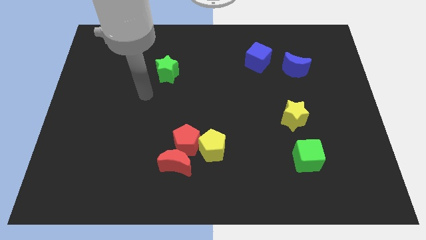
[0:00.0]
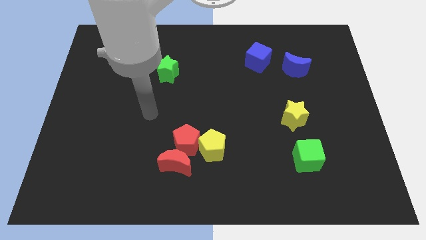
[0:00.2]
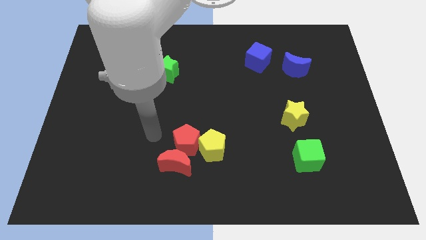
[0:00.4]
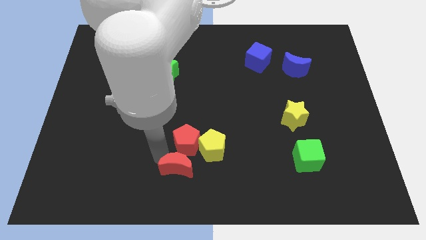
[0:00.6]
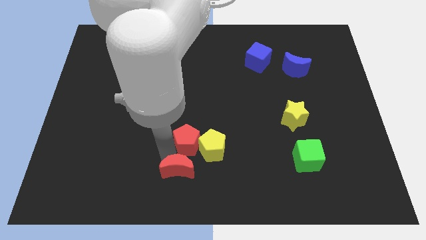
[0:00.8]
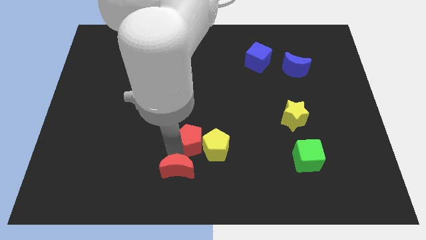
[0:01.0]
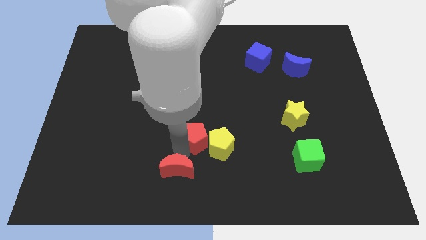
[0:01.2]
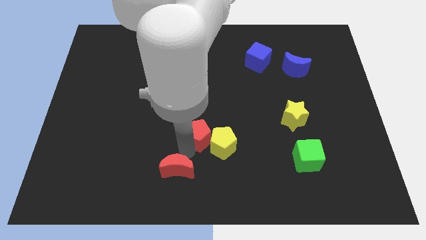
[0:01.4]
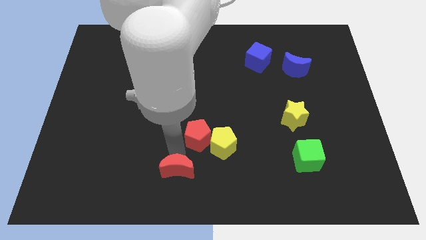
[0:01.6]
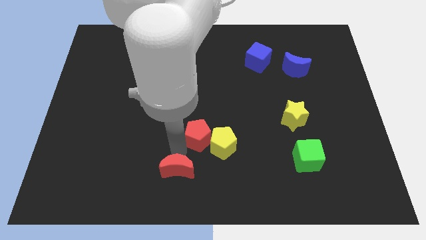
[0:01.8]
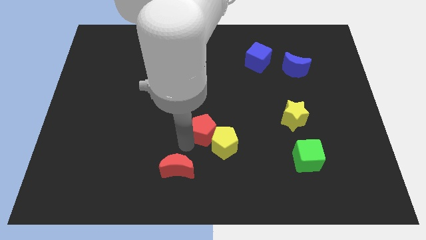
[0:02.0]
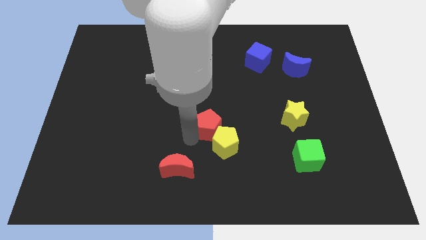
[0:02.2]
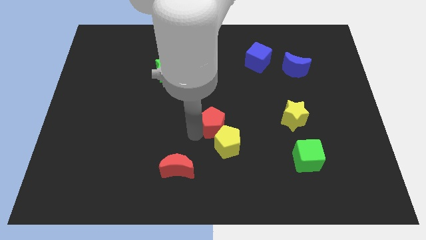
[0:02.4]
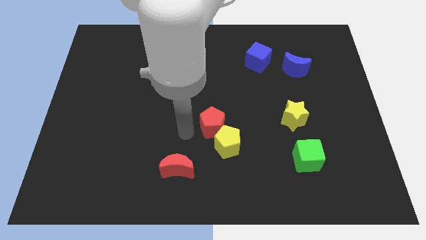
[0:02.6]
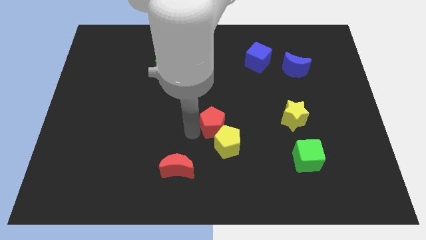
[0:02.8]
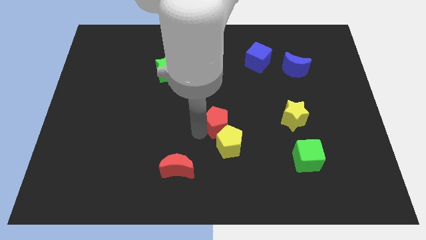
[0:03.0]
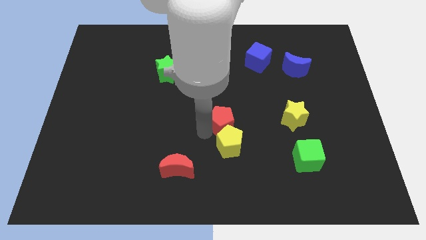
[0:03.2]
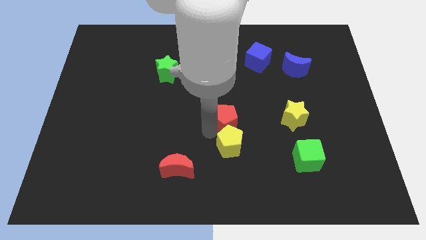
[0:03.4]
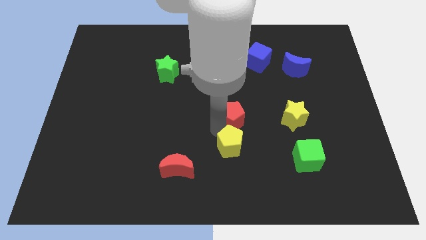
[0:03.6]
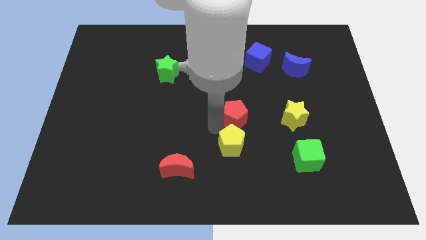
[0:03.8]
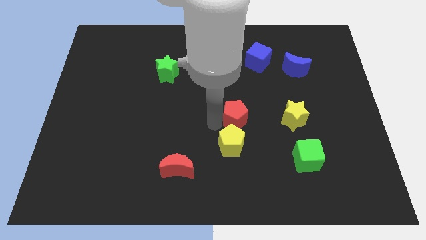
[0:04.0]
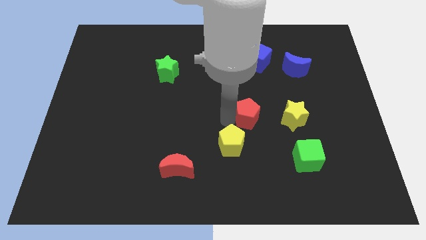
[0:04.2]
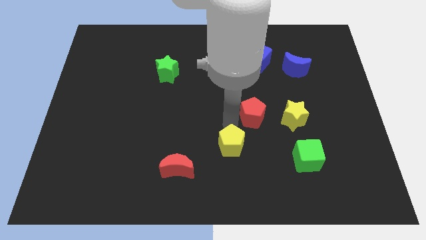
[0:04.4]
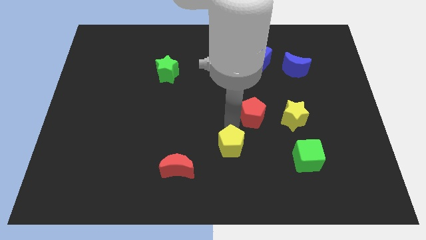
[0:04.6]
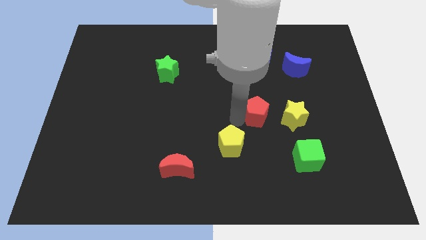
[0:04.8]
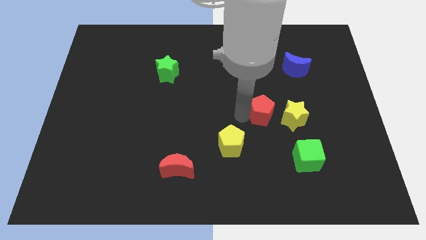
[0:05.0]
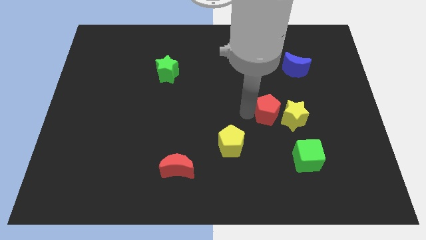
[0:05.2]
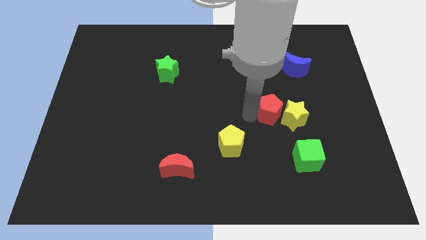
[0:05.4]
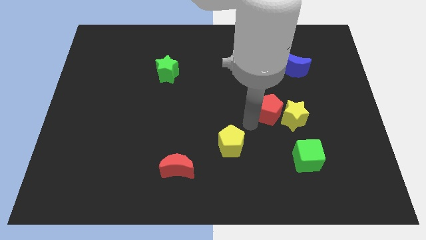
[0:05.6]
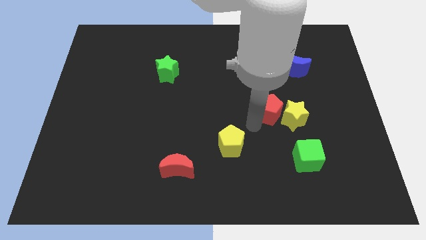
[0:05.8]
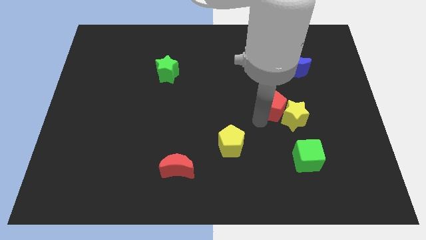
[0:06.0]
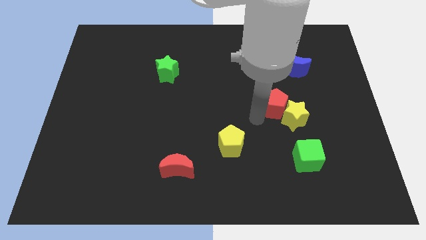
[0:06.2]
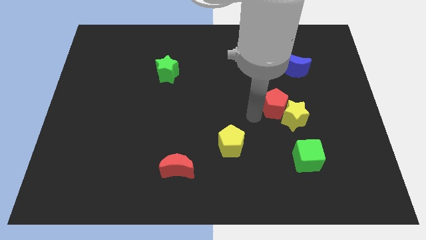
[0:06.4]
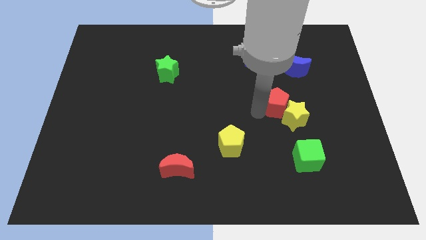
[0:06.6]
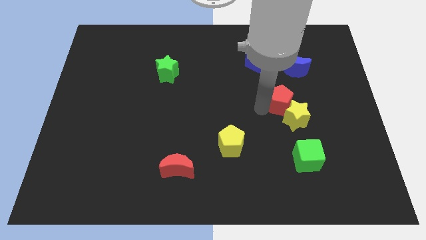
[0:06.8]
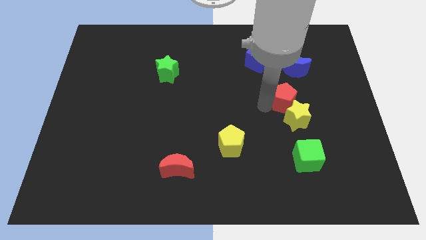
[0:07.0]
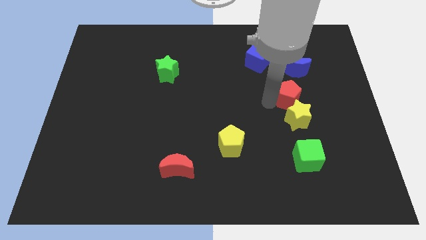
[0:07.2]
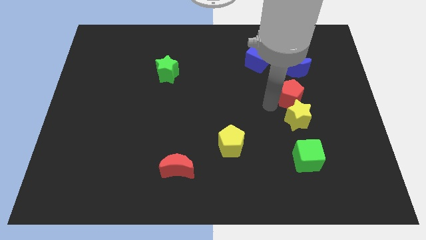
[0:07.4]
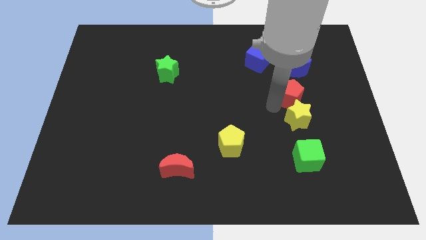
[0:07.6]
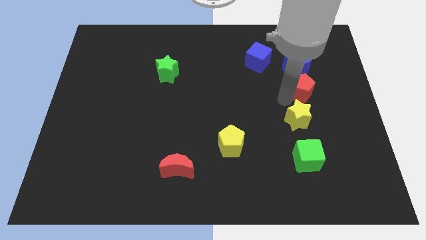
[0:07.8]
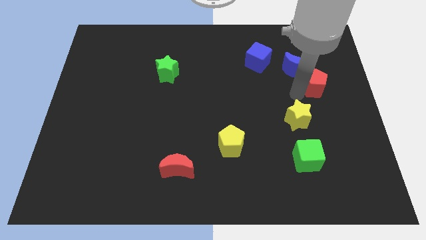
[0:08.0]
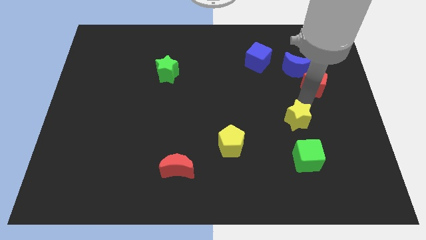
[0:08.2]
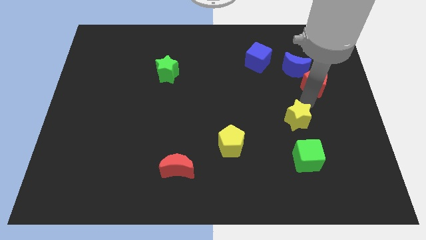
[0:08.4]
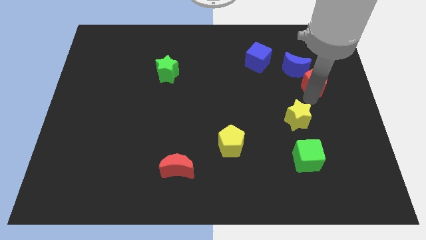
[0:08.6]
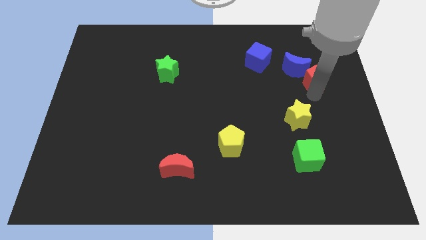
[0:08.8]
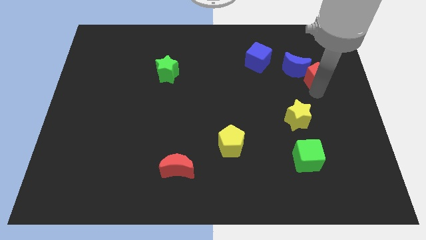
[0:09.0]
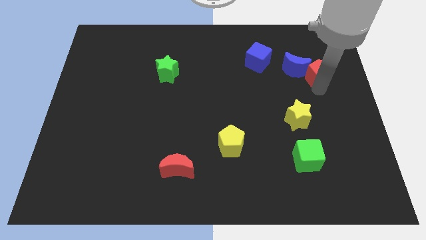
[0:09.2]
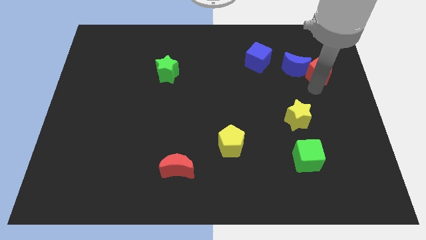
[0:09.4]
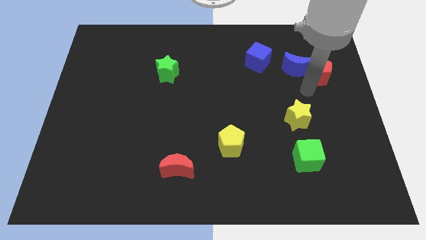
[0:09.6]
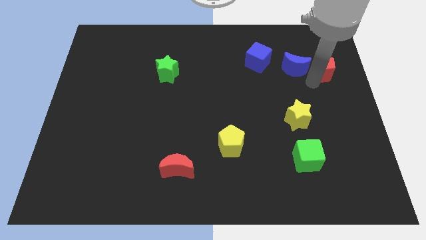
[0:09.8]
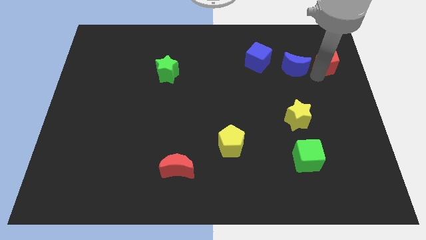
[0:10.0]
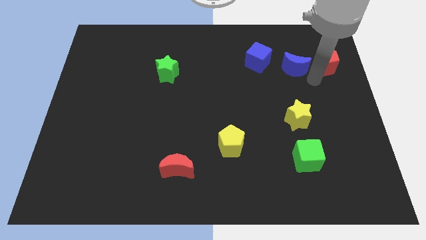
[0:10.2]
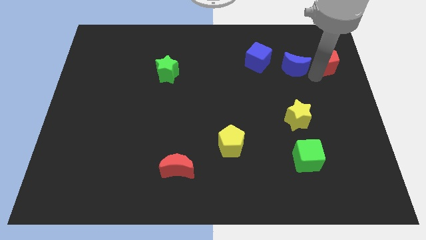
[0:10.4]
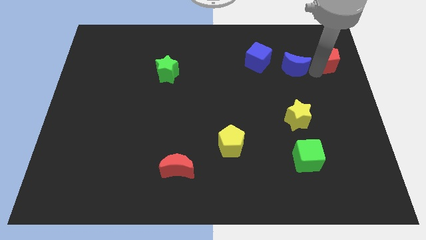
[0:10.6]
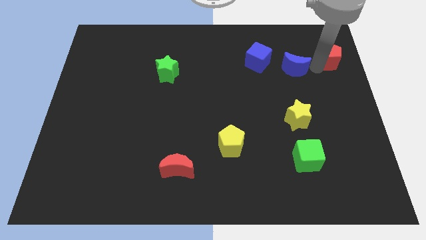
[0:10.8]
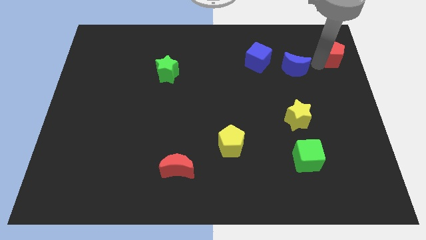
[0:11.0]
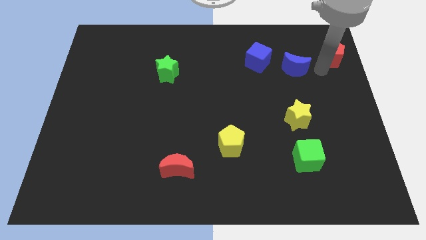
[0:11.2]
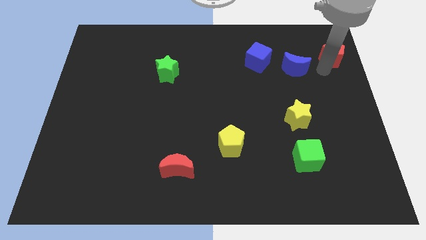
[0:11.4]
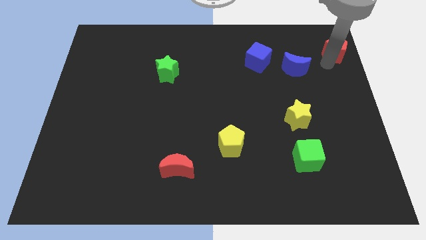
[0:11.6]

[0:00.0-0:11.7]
put the red pentagon to the top right of the board
